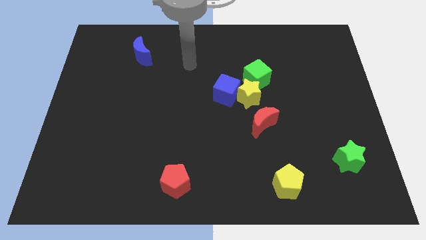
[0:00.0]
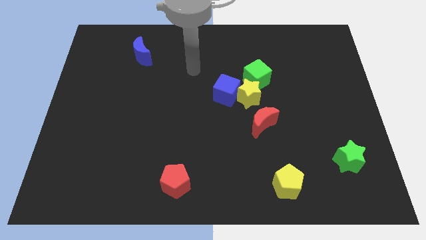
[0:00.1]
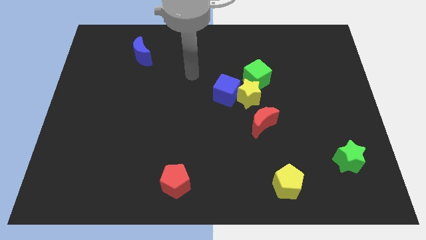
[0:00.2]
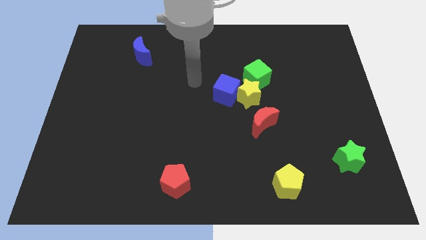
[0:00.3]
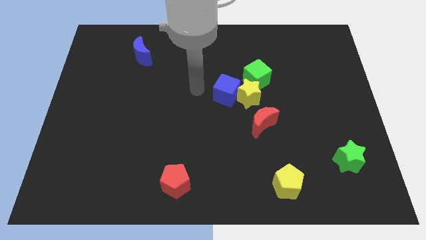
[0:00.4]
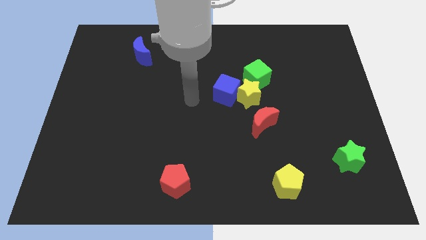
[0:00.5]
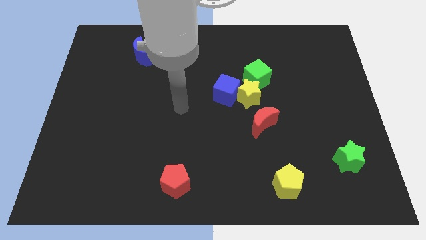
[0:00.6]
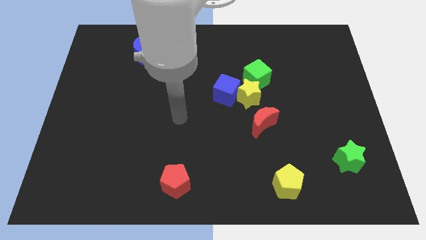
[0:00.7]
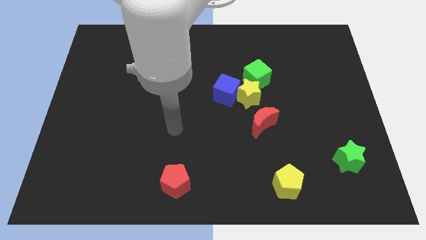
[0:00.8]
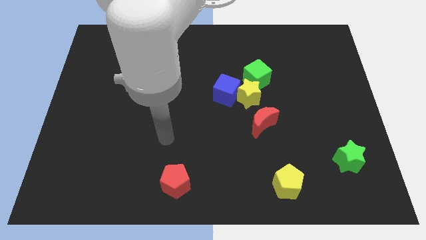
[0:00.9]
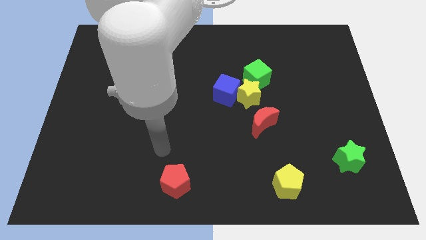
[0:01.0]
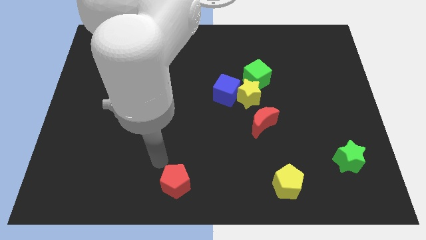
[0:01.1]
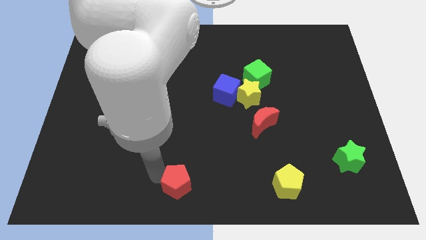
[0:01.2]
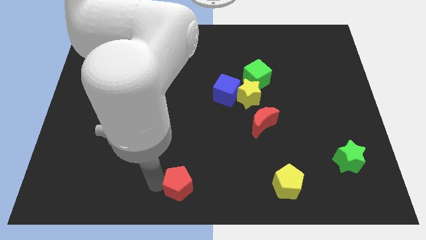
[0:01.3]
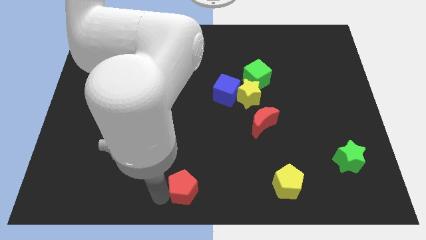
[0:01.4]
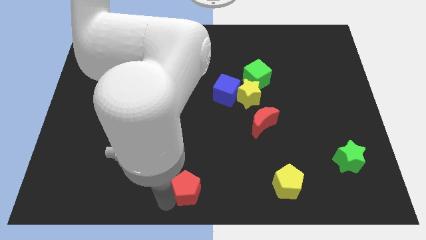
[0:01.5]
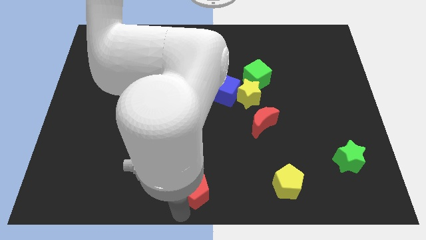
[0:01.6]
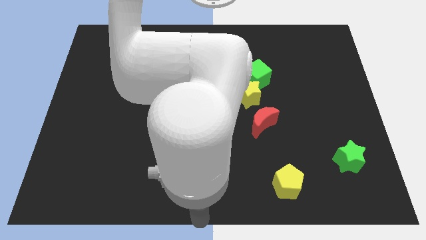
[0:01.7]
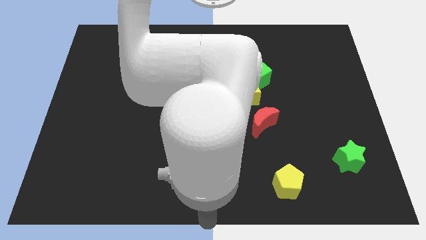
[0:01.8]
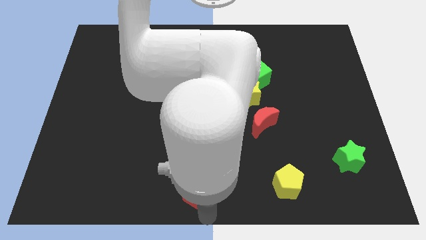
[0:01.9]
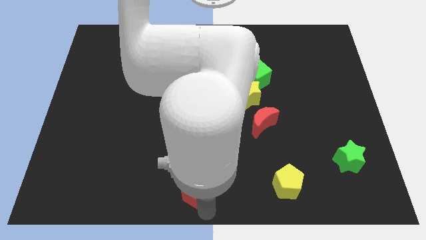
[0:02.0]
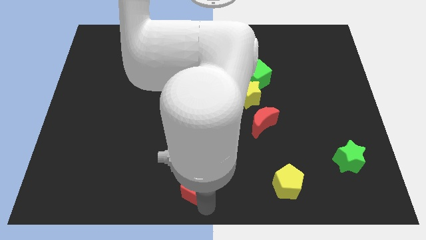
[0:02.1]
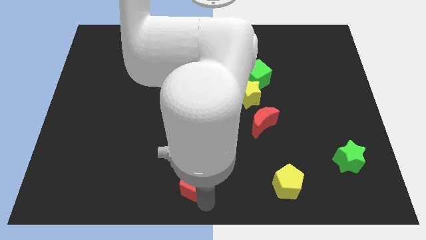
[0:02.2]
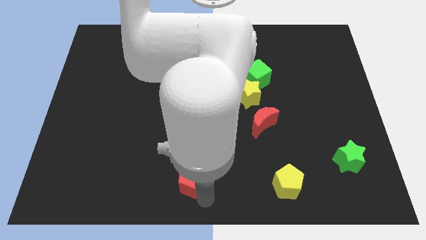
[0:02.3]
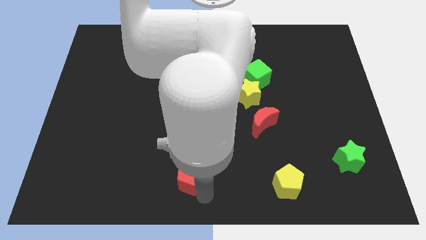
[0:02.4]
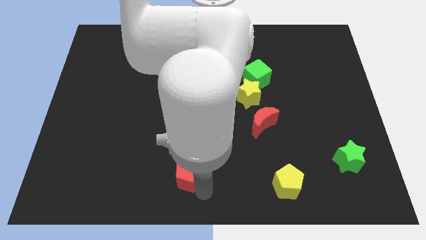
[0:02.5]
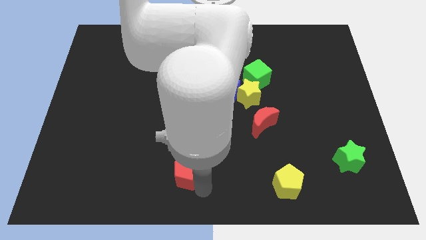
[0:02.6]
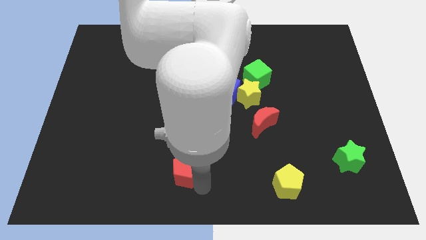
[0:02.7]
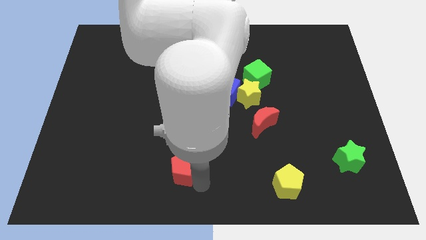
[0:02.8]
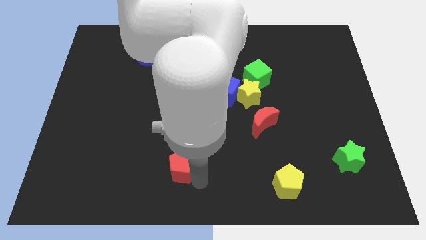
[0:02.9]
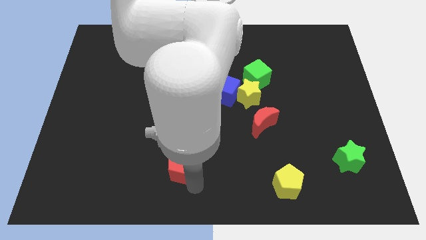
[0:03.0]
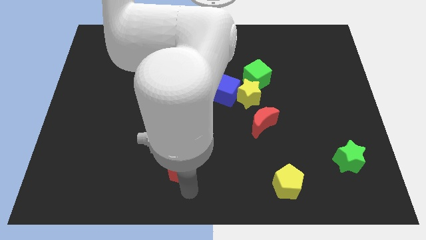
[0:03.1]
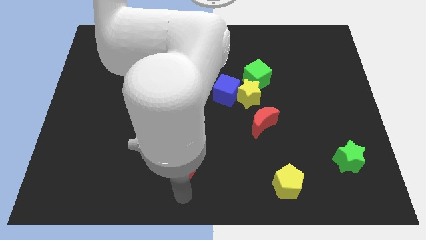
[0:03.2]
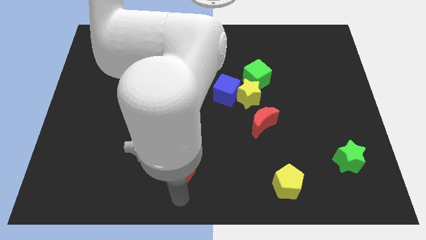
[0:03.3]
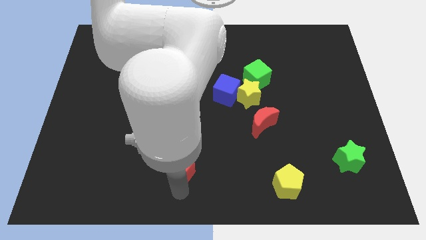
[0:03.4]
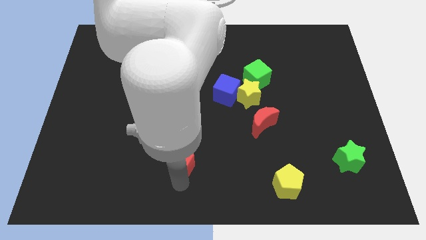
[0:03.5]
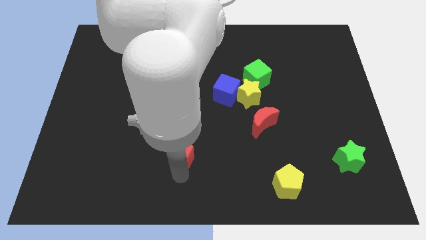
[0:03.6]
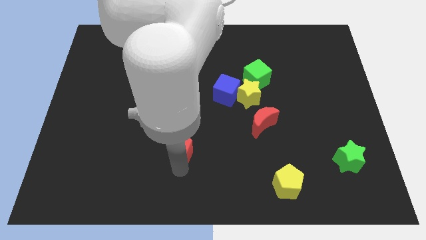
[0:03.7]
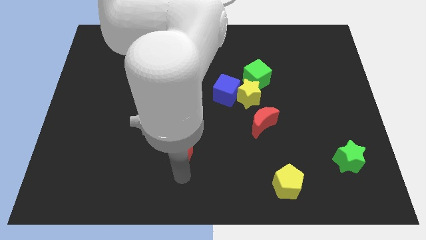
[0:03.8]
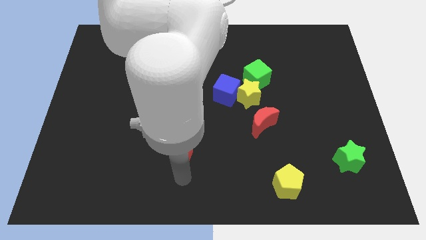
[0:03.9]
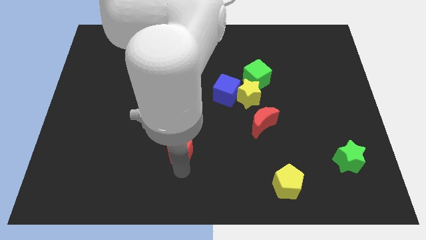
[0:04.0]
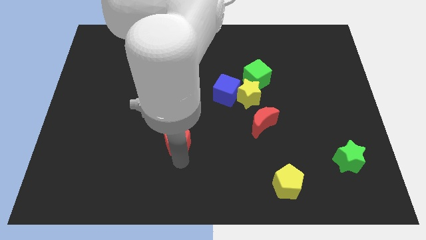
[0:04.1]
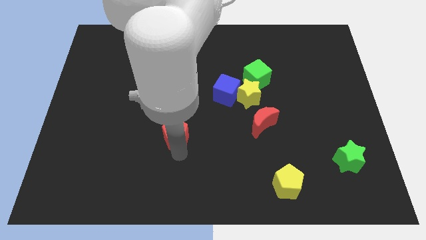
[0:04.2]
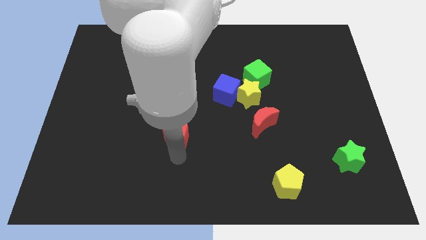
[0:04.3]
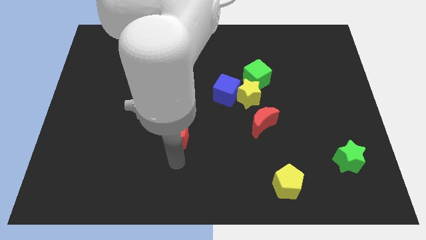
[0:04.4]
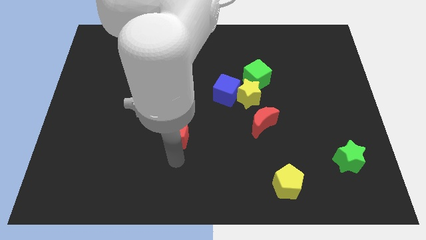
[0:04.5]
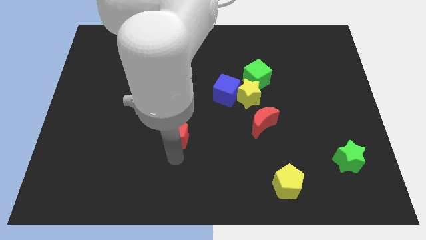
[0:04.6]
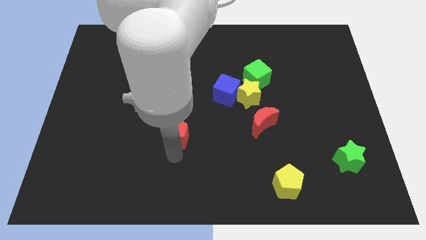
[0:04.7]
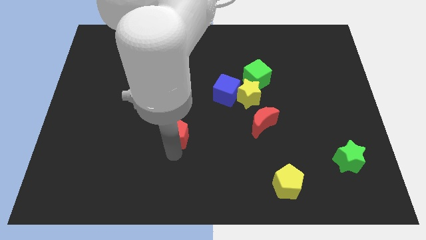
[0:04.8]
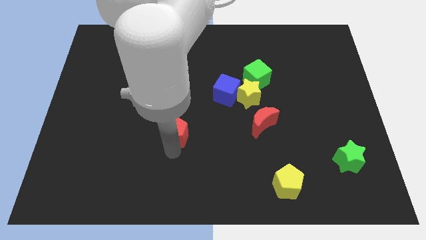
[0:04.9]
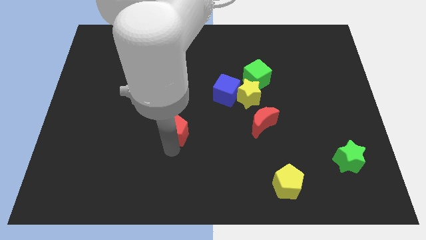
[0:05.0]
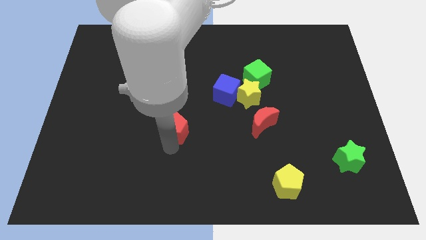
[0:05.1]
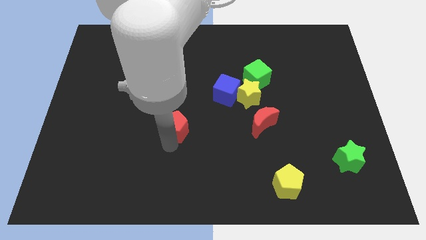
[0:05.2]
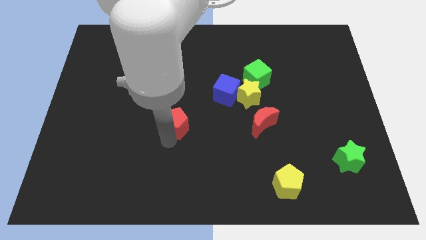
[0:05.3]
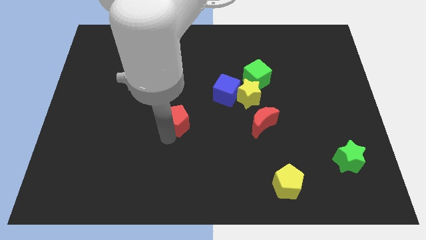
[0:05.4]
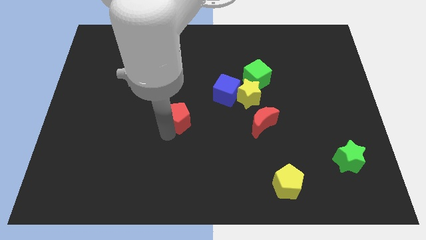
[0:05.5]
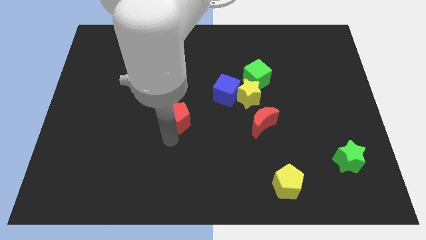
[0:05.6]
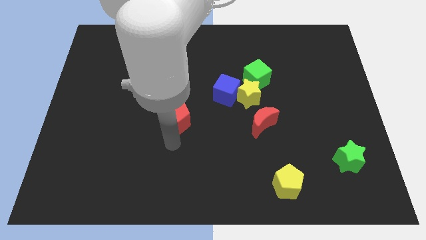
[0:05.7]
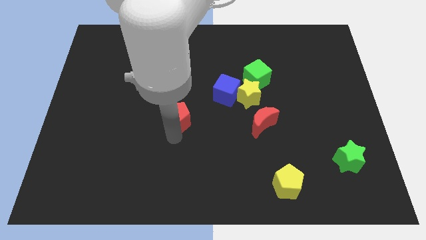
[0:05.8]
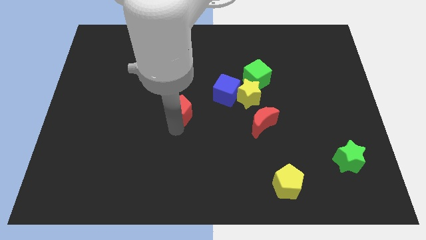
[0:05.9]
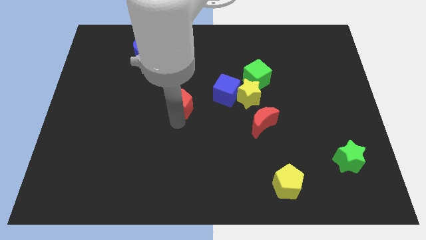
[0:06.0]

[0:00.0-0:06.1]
move the red pentagon left of the blue cube

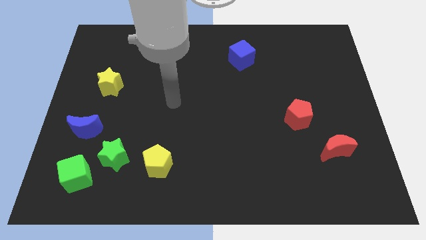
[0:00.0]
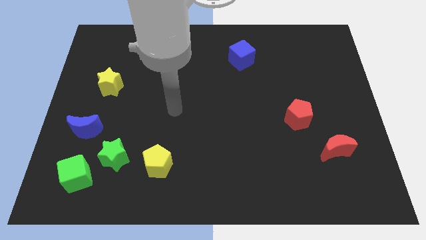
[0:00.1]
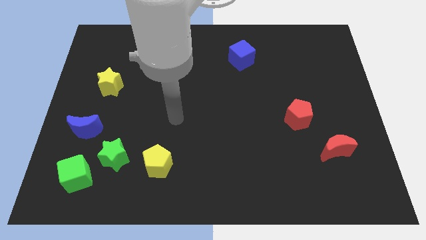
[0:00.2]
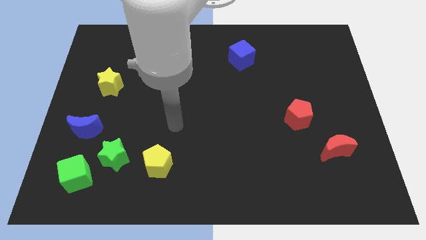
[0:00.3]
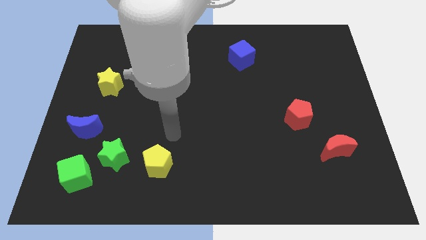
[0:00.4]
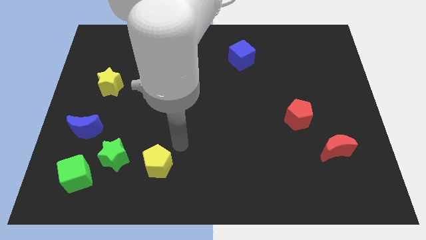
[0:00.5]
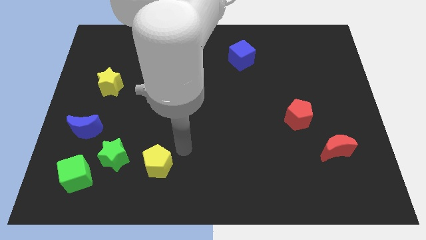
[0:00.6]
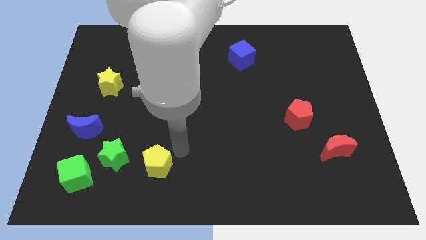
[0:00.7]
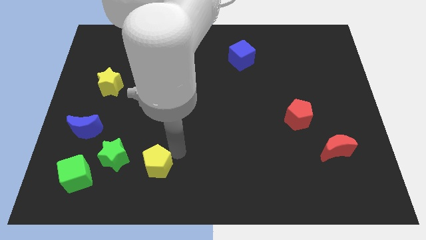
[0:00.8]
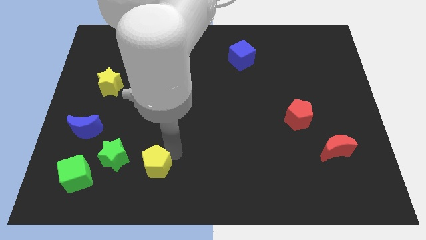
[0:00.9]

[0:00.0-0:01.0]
slide the yellow pentagon diagonally down and to the right of the green star
